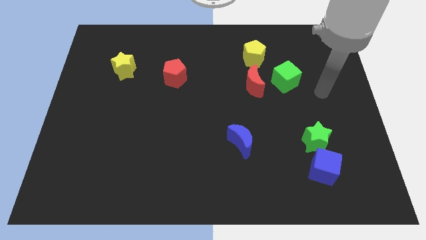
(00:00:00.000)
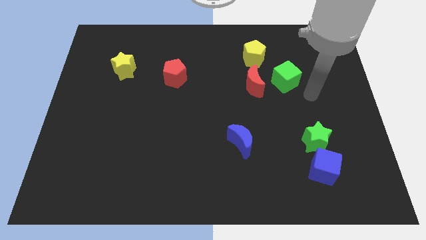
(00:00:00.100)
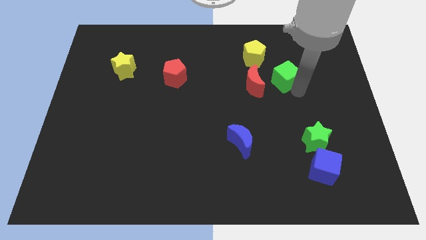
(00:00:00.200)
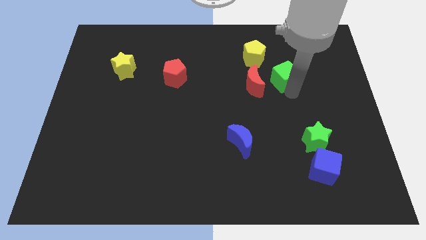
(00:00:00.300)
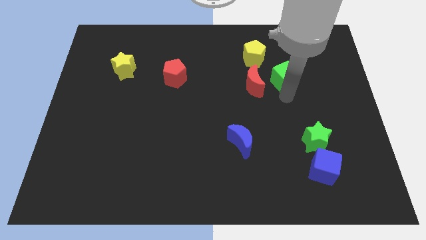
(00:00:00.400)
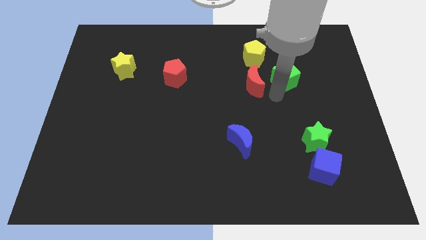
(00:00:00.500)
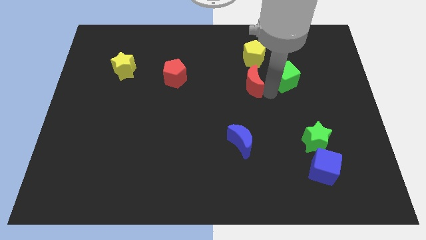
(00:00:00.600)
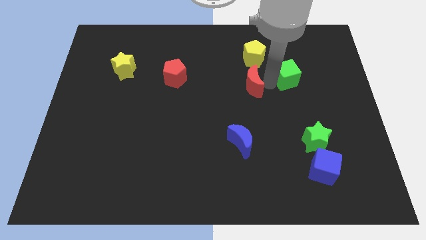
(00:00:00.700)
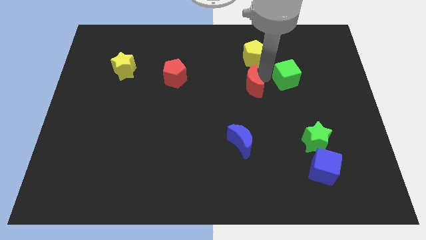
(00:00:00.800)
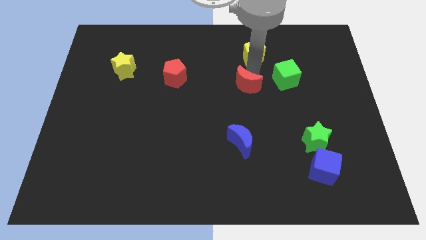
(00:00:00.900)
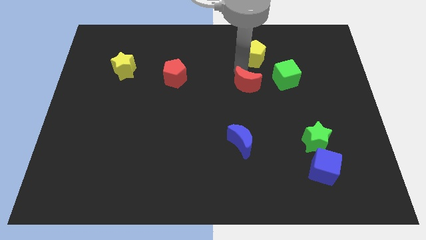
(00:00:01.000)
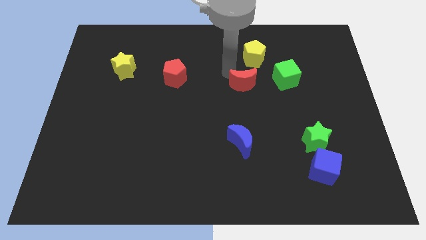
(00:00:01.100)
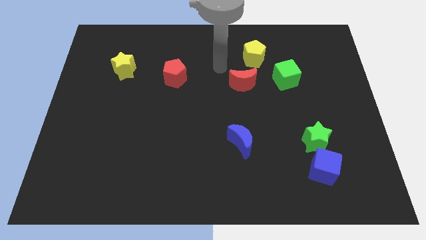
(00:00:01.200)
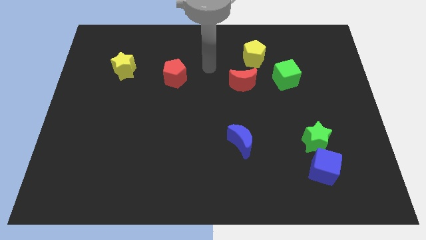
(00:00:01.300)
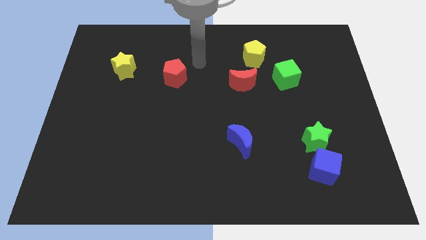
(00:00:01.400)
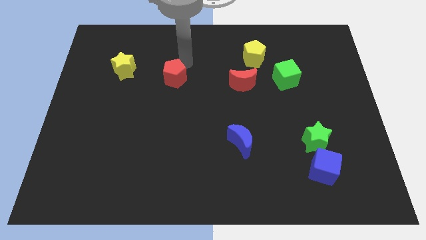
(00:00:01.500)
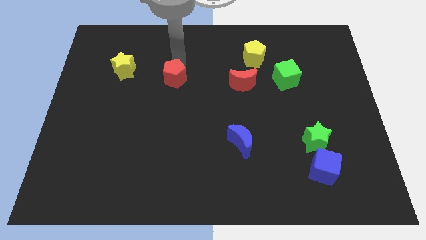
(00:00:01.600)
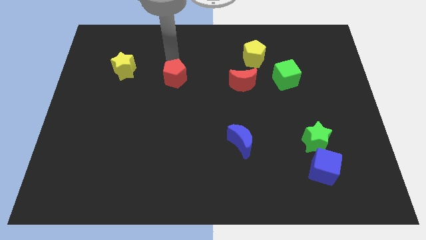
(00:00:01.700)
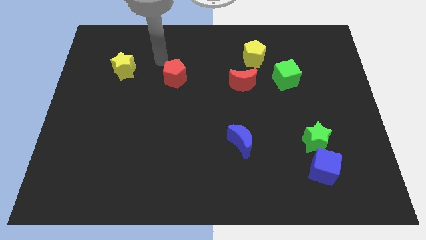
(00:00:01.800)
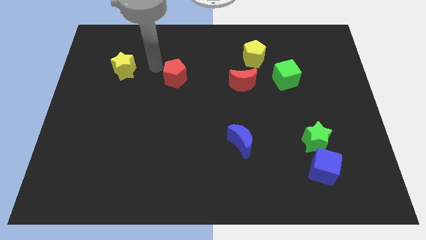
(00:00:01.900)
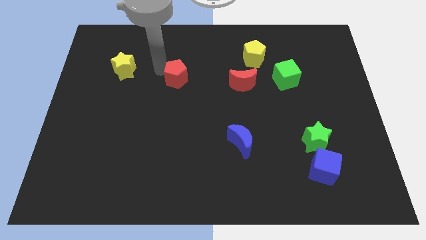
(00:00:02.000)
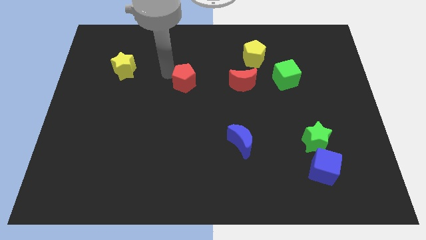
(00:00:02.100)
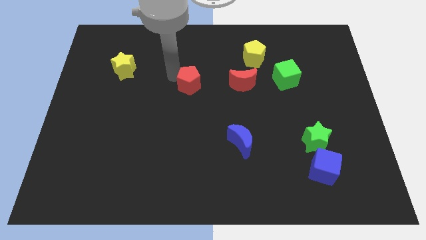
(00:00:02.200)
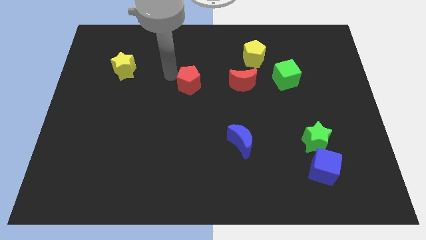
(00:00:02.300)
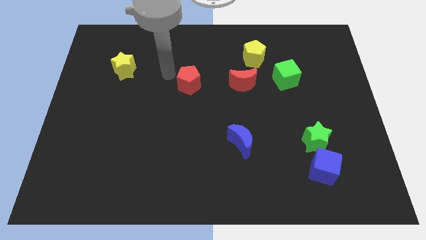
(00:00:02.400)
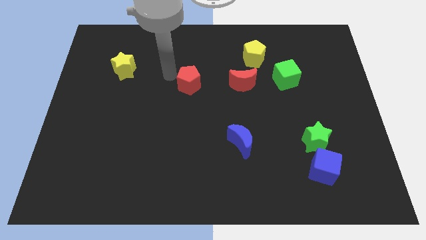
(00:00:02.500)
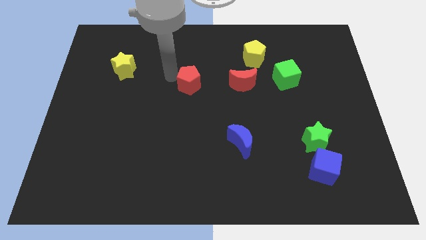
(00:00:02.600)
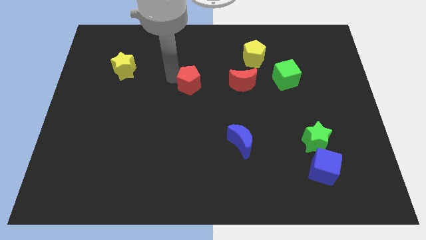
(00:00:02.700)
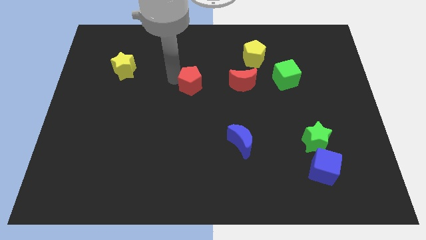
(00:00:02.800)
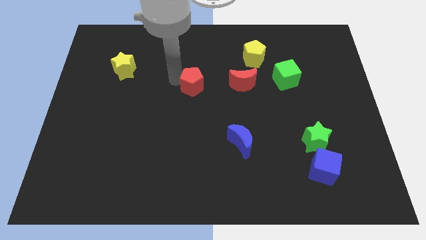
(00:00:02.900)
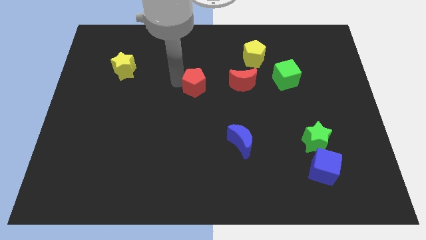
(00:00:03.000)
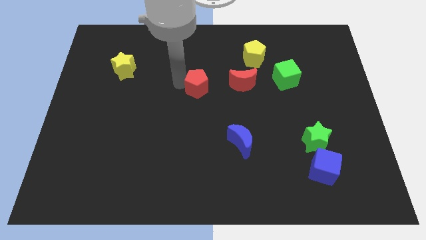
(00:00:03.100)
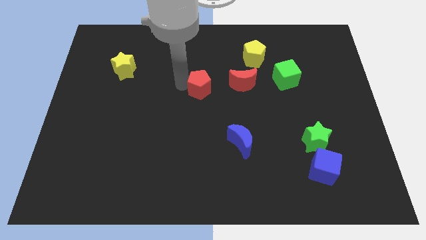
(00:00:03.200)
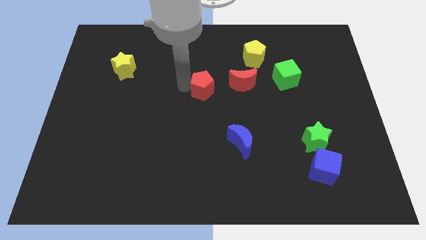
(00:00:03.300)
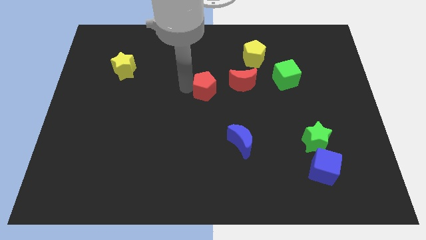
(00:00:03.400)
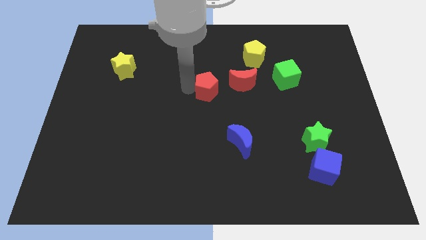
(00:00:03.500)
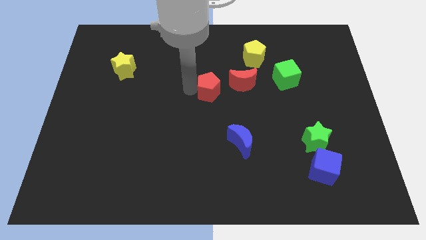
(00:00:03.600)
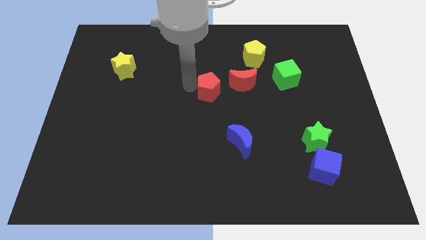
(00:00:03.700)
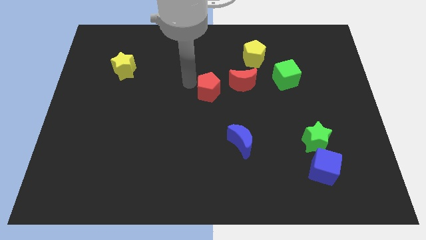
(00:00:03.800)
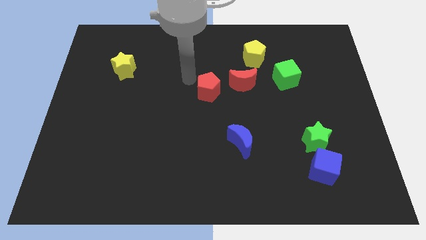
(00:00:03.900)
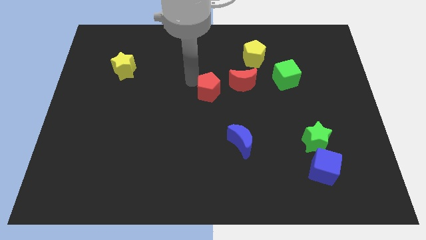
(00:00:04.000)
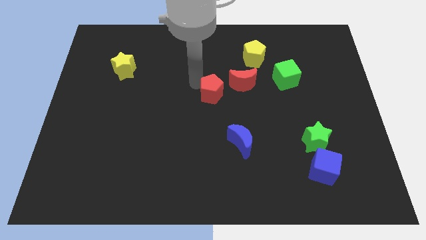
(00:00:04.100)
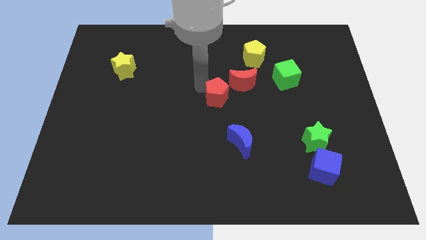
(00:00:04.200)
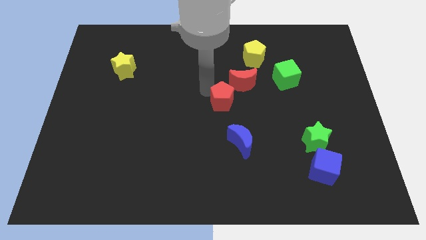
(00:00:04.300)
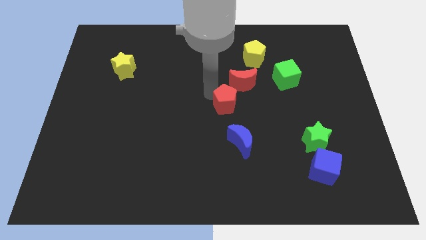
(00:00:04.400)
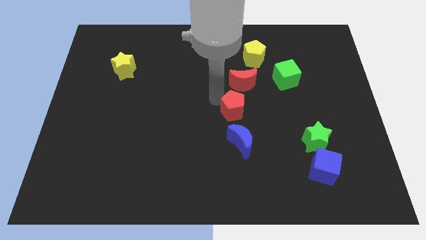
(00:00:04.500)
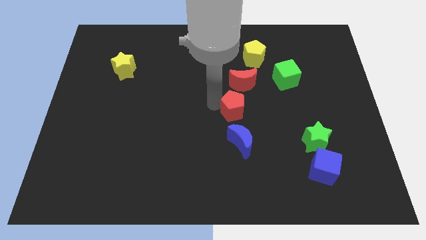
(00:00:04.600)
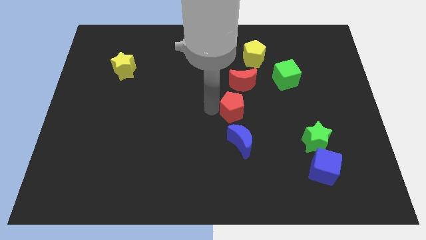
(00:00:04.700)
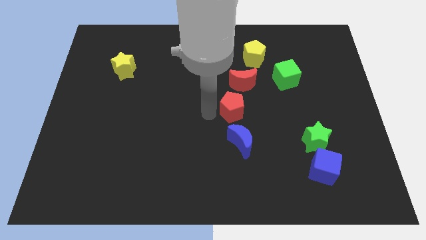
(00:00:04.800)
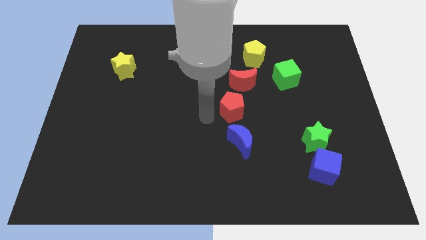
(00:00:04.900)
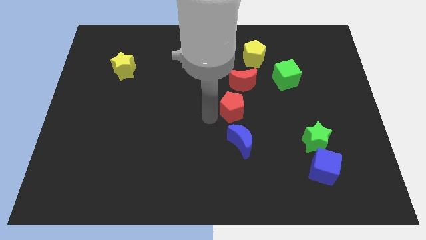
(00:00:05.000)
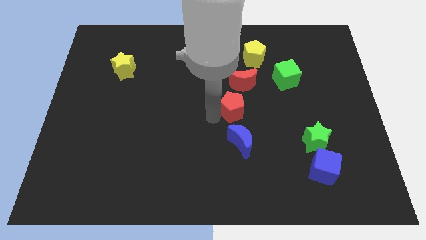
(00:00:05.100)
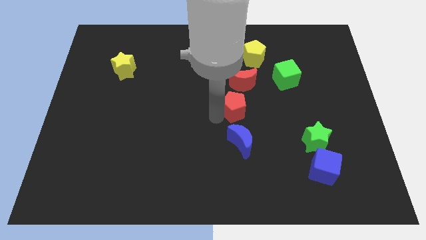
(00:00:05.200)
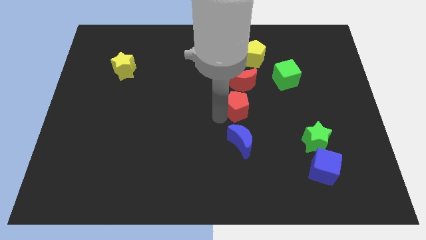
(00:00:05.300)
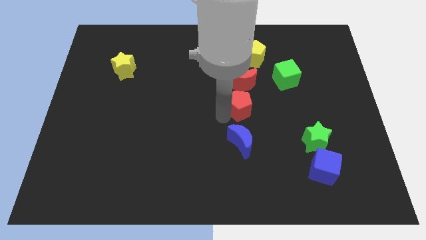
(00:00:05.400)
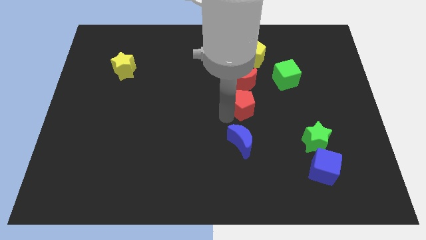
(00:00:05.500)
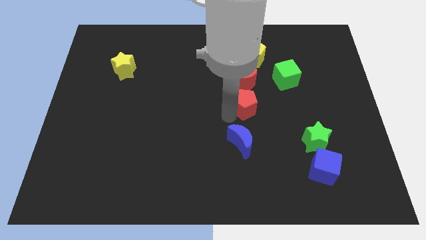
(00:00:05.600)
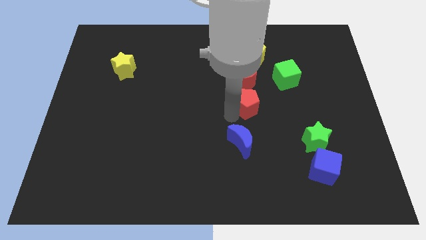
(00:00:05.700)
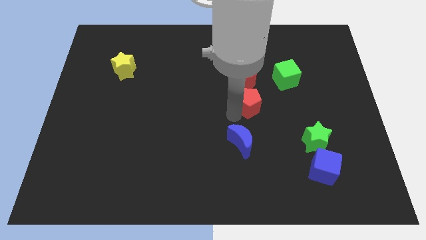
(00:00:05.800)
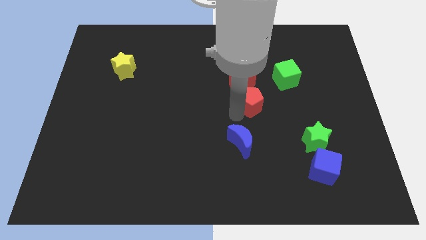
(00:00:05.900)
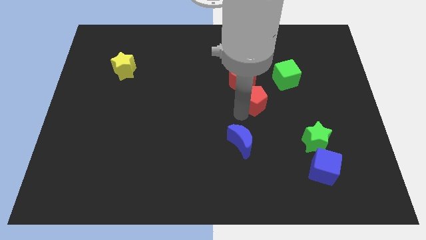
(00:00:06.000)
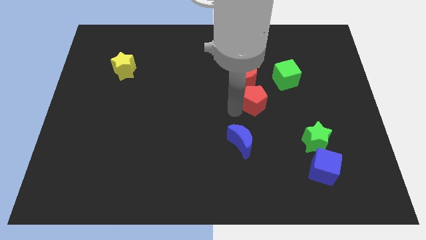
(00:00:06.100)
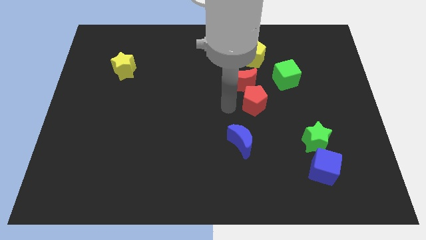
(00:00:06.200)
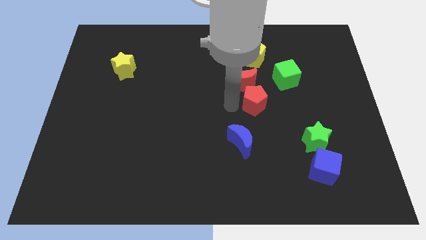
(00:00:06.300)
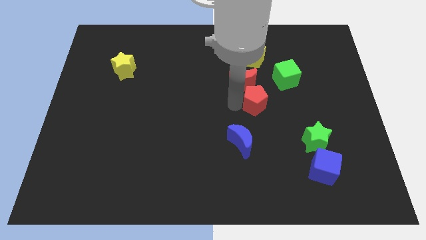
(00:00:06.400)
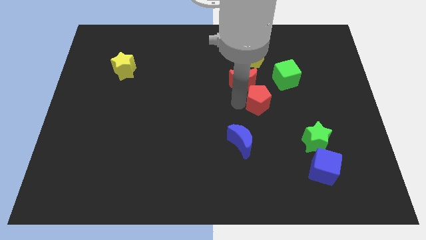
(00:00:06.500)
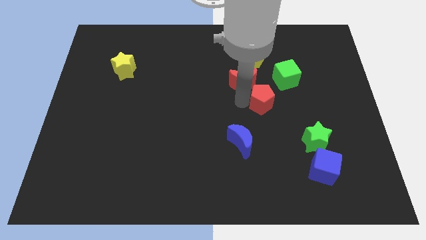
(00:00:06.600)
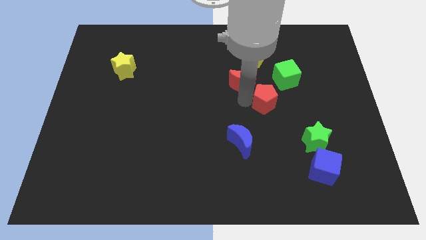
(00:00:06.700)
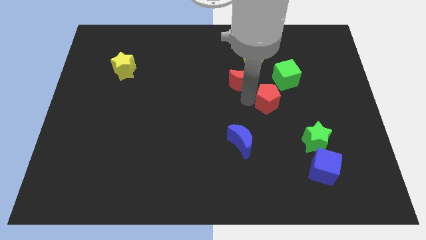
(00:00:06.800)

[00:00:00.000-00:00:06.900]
move the red pentagon to the right

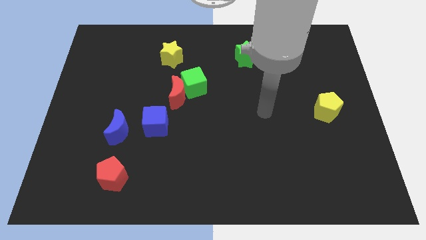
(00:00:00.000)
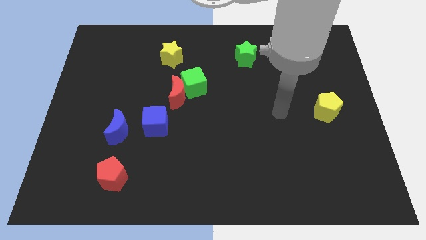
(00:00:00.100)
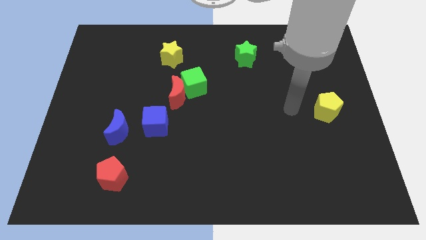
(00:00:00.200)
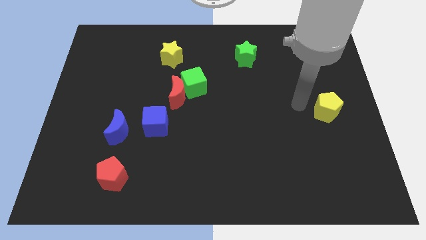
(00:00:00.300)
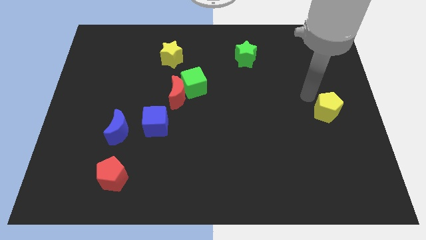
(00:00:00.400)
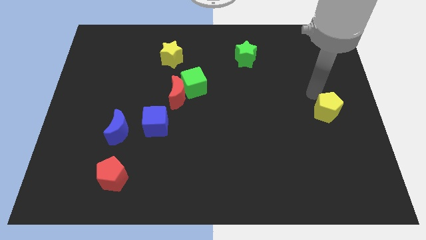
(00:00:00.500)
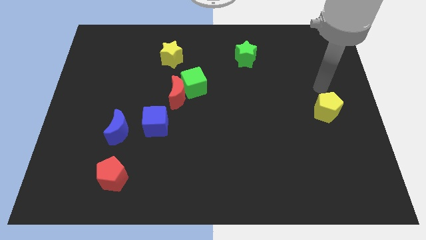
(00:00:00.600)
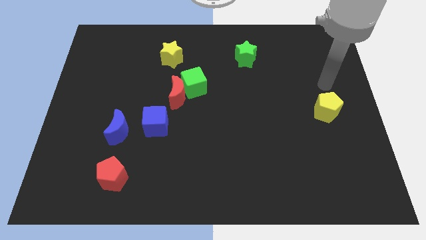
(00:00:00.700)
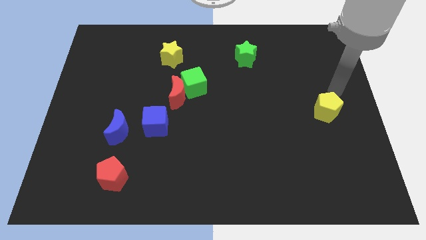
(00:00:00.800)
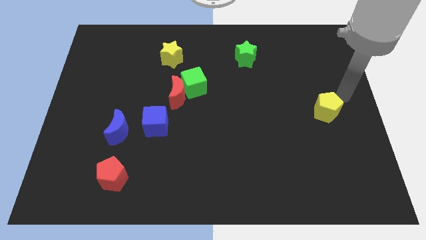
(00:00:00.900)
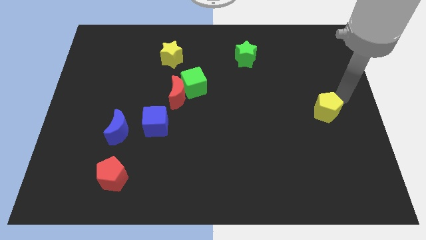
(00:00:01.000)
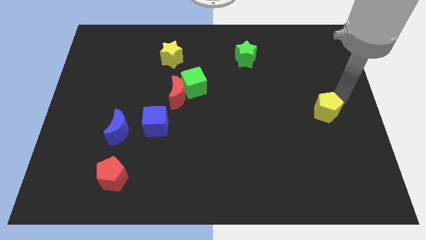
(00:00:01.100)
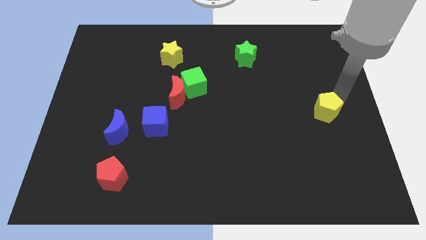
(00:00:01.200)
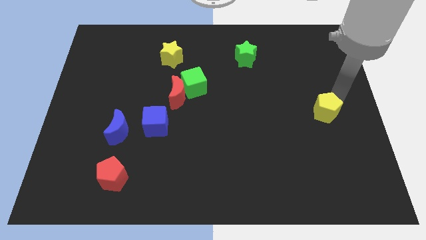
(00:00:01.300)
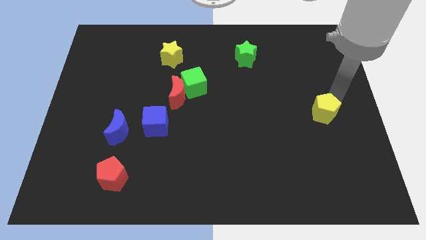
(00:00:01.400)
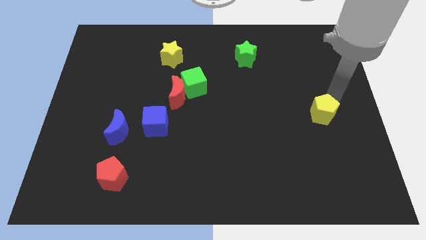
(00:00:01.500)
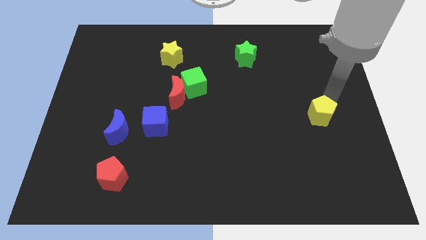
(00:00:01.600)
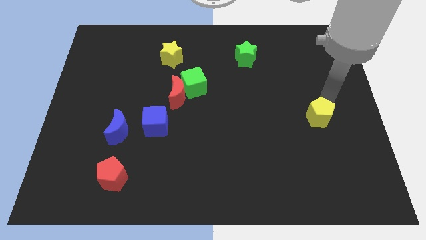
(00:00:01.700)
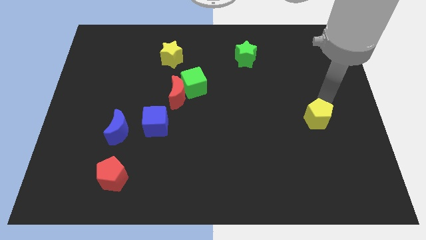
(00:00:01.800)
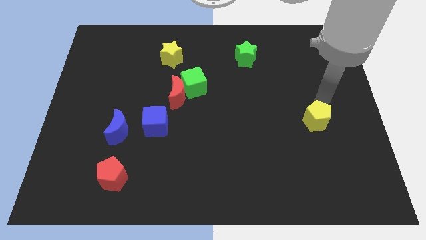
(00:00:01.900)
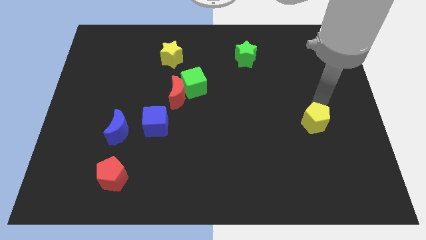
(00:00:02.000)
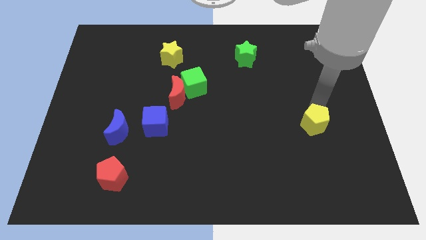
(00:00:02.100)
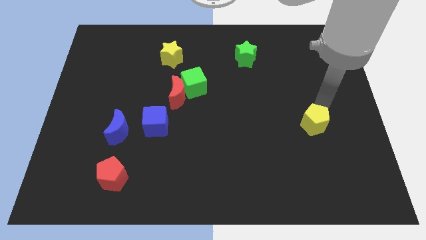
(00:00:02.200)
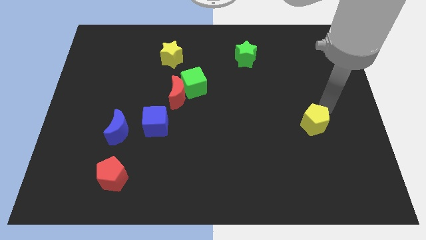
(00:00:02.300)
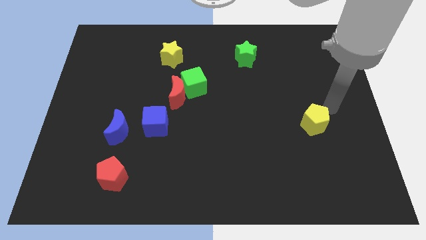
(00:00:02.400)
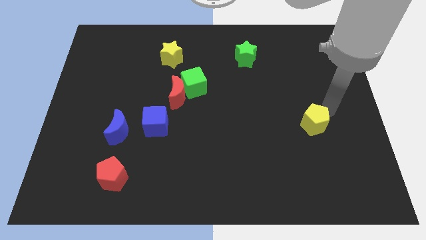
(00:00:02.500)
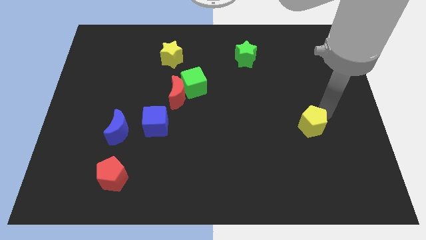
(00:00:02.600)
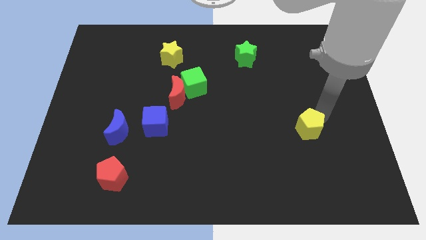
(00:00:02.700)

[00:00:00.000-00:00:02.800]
slightly push the yellow pentagon down and then to the left
